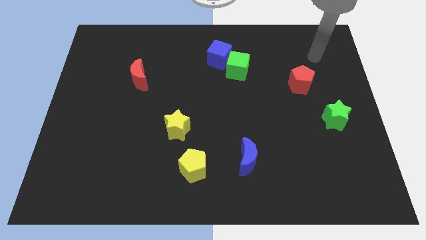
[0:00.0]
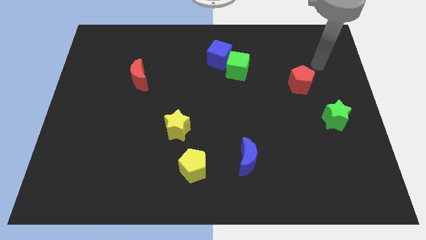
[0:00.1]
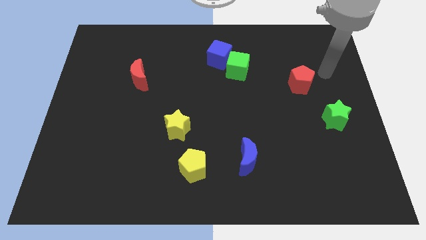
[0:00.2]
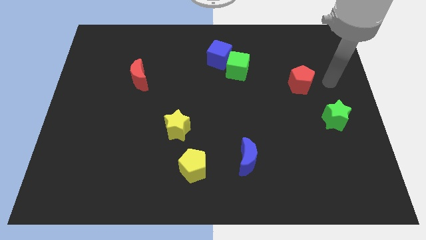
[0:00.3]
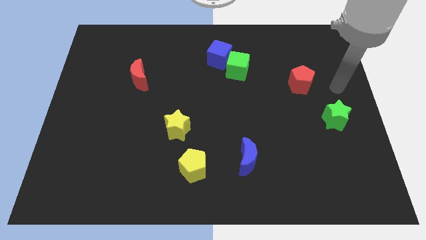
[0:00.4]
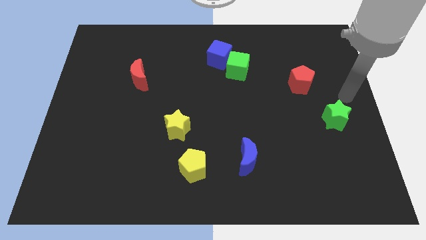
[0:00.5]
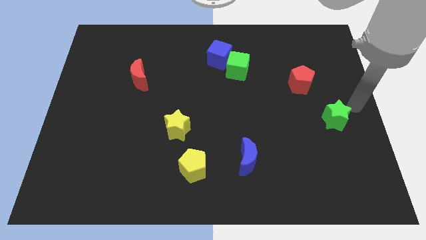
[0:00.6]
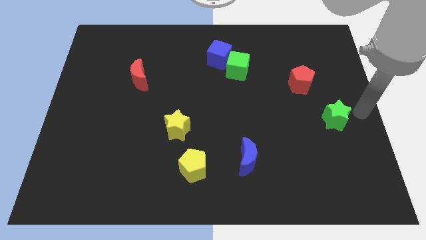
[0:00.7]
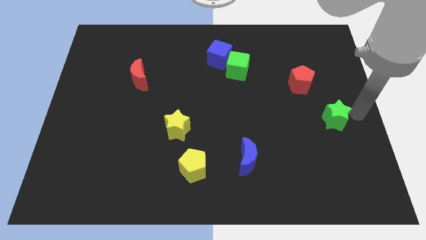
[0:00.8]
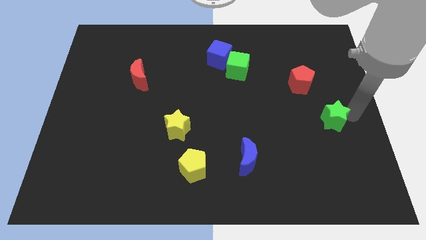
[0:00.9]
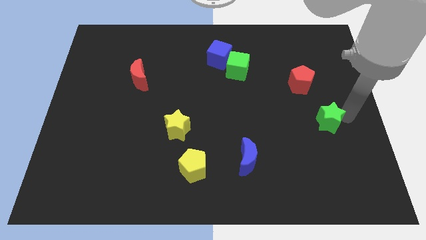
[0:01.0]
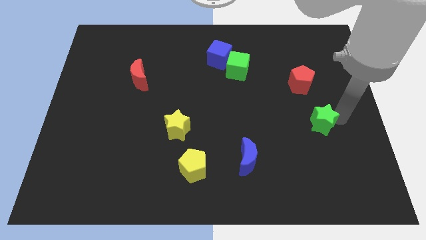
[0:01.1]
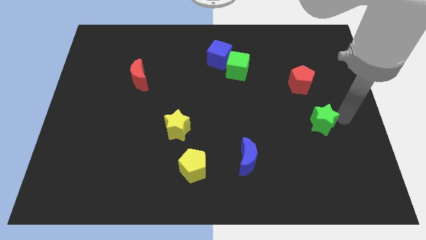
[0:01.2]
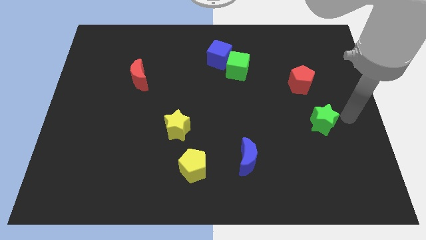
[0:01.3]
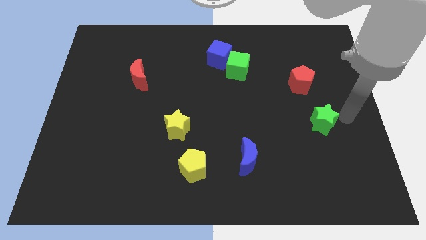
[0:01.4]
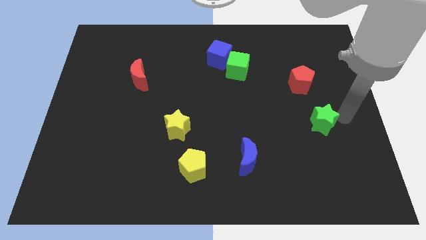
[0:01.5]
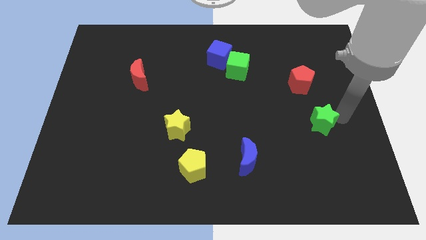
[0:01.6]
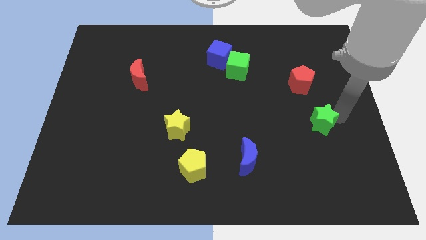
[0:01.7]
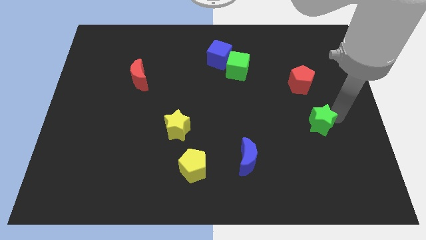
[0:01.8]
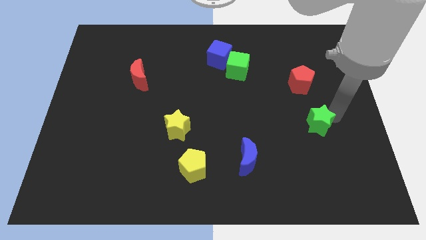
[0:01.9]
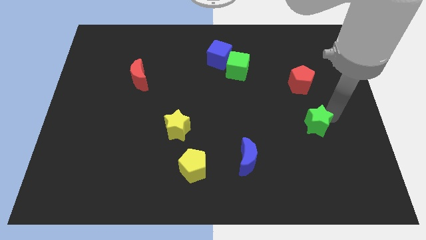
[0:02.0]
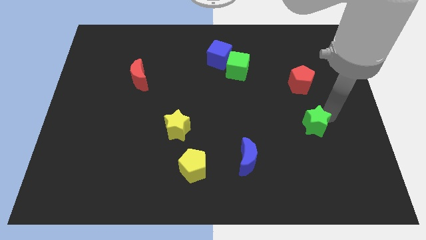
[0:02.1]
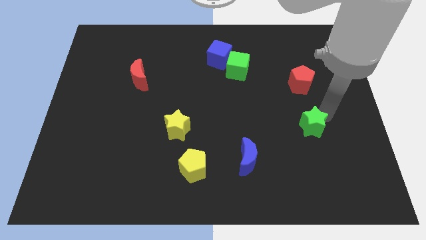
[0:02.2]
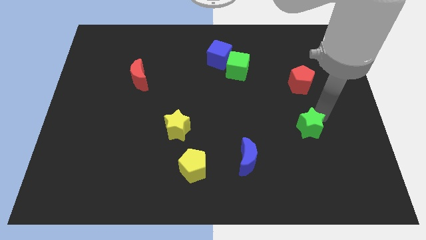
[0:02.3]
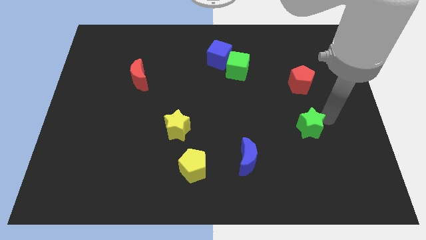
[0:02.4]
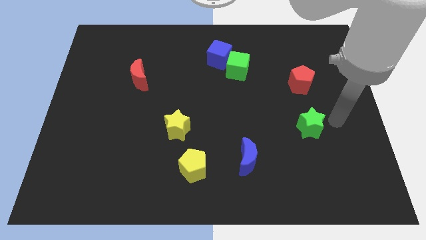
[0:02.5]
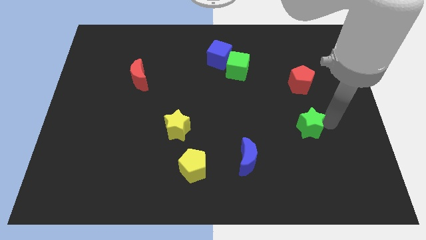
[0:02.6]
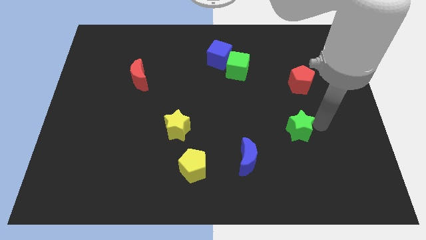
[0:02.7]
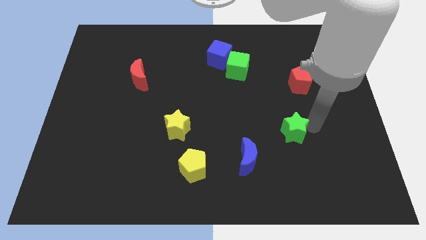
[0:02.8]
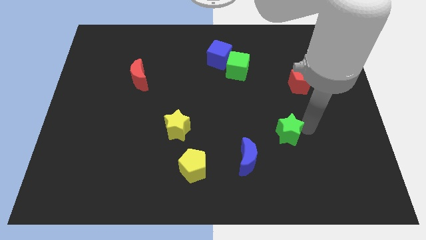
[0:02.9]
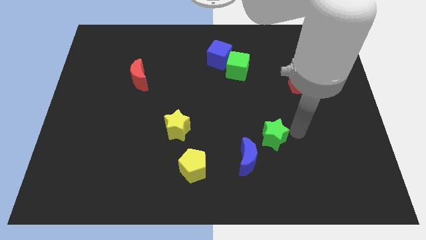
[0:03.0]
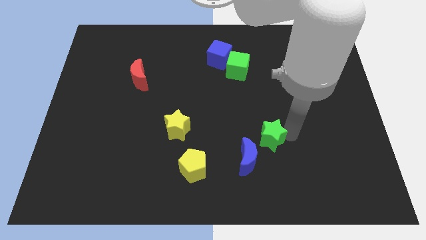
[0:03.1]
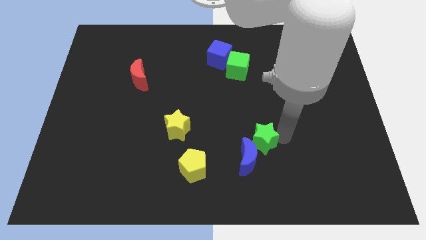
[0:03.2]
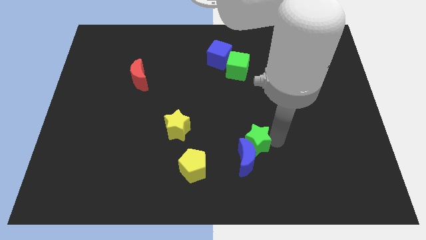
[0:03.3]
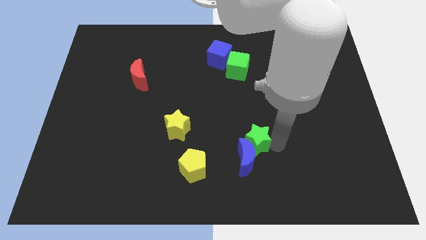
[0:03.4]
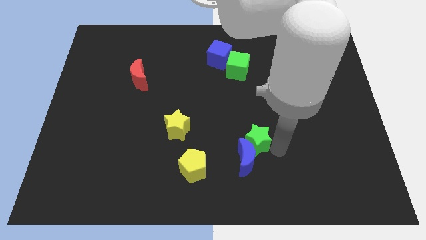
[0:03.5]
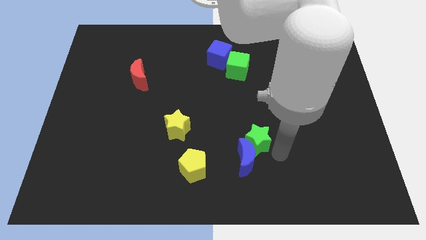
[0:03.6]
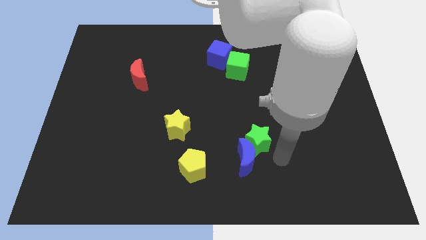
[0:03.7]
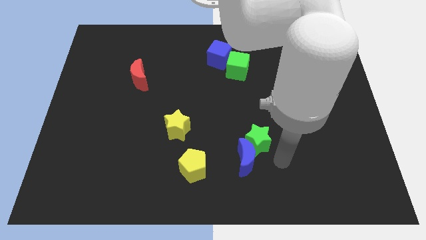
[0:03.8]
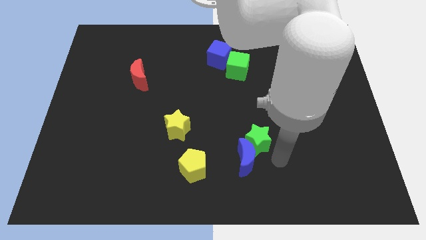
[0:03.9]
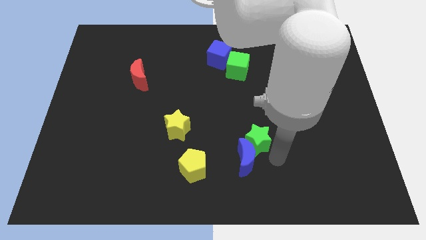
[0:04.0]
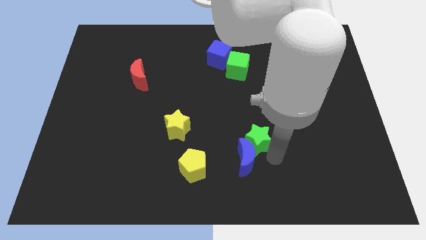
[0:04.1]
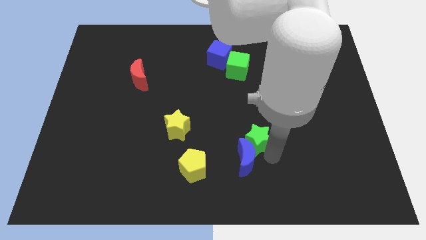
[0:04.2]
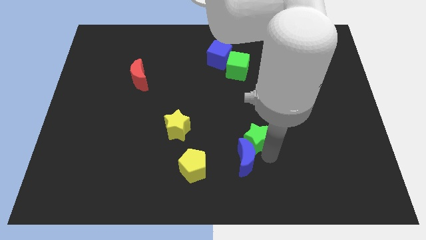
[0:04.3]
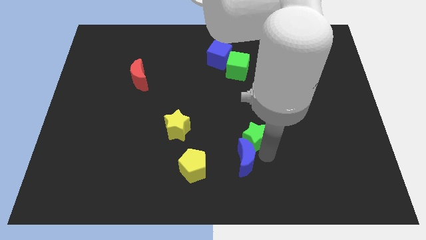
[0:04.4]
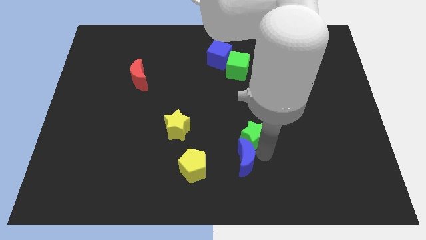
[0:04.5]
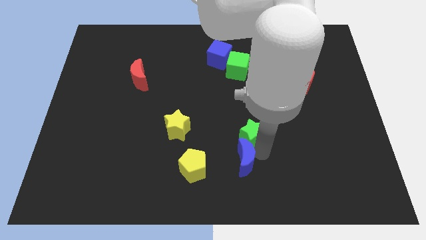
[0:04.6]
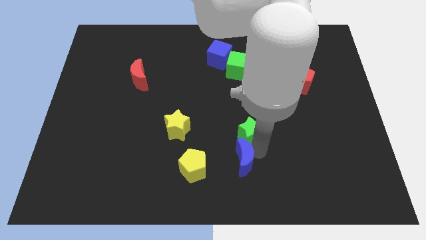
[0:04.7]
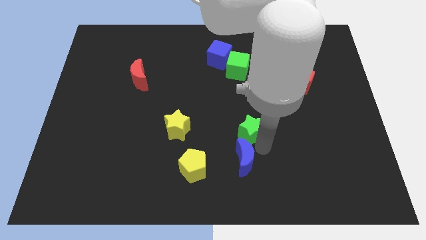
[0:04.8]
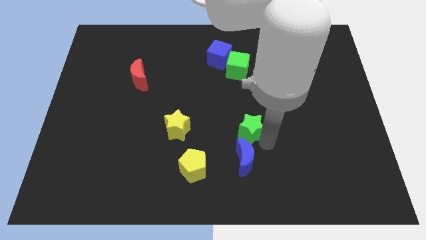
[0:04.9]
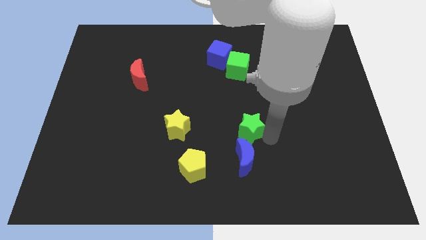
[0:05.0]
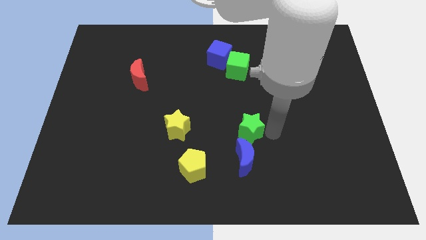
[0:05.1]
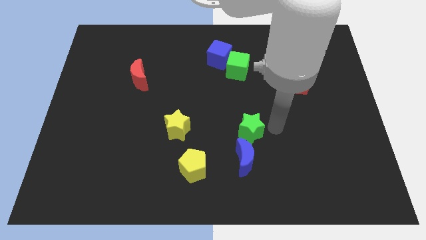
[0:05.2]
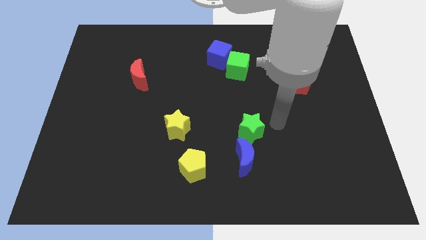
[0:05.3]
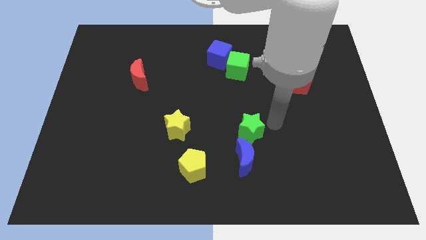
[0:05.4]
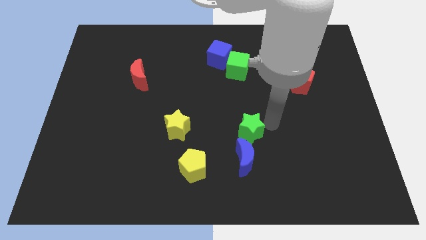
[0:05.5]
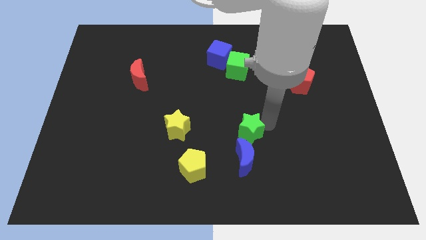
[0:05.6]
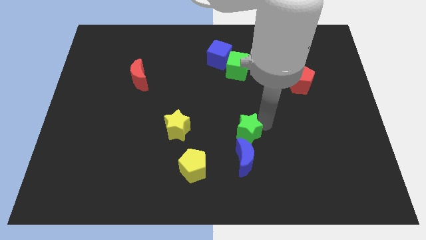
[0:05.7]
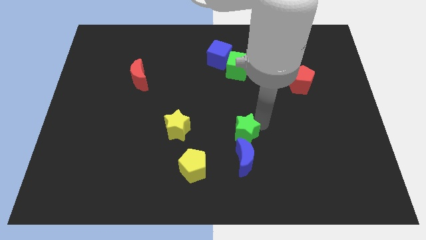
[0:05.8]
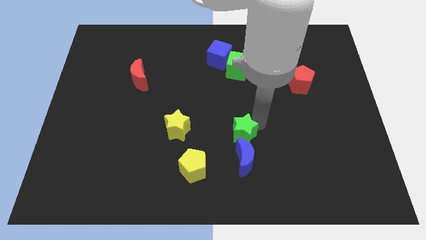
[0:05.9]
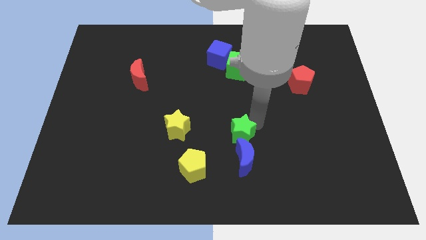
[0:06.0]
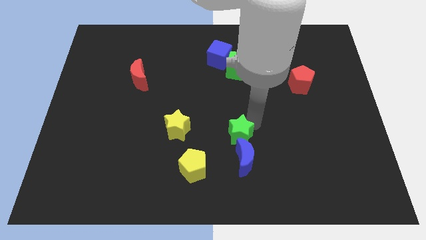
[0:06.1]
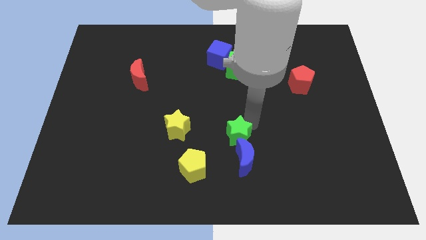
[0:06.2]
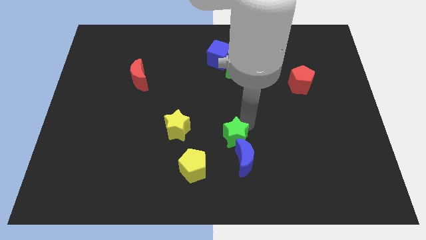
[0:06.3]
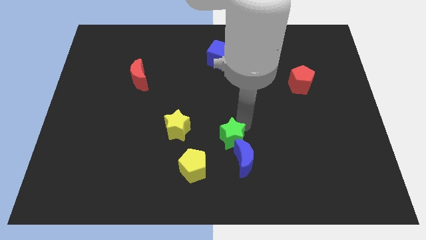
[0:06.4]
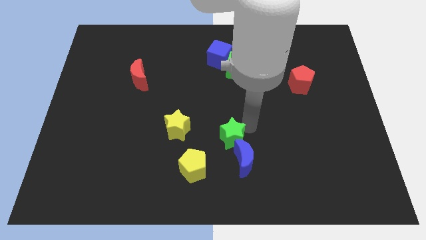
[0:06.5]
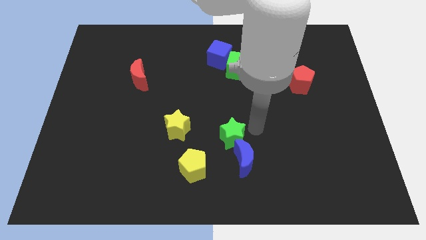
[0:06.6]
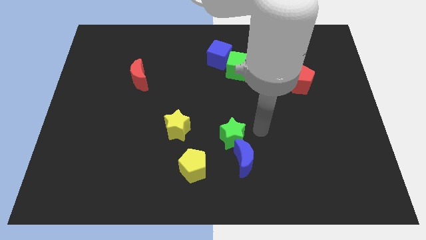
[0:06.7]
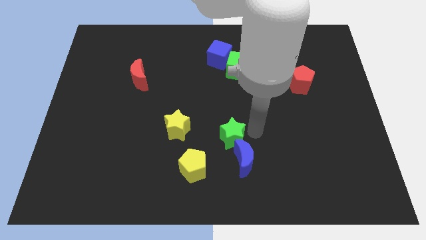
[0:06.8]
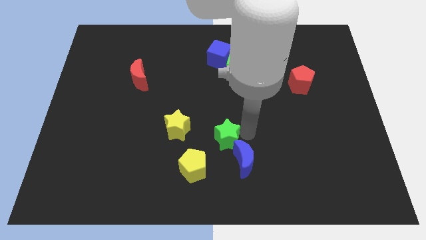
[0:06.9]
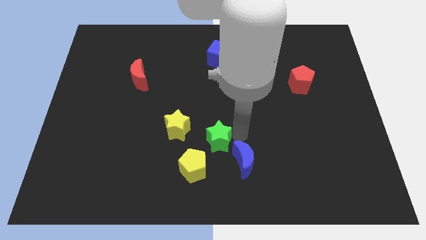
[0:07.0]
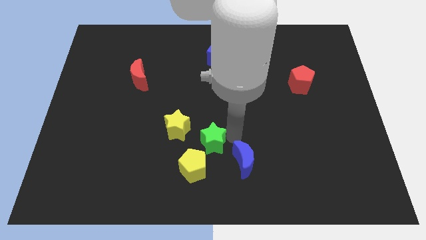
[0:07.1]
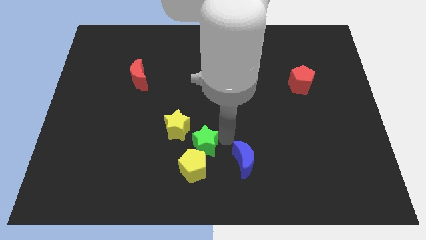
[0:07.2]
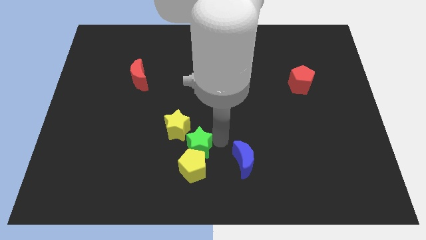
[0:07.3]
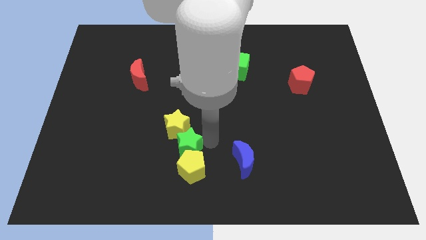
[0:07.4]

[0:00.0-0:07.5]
move the green star to the bottom side of the yellow star

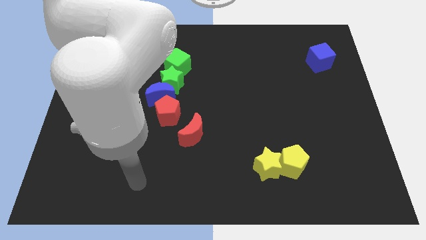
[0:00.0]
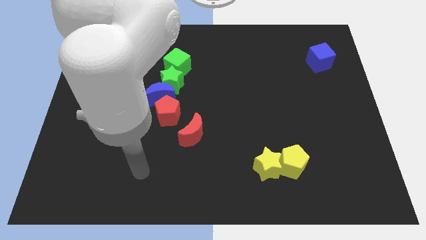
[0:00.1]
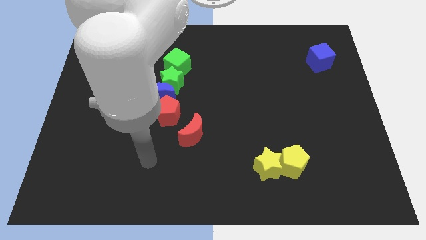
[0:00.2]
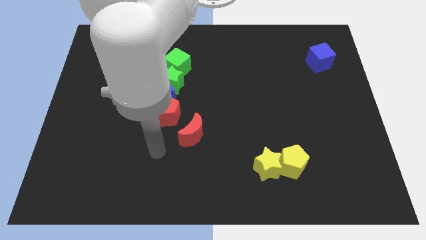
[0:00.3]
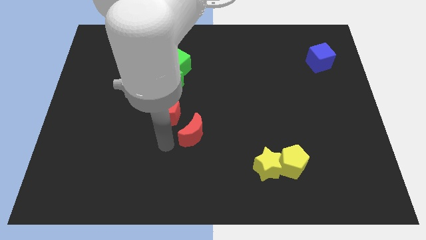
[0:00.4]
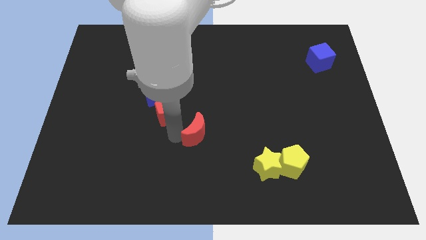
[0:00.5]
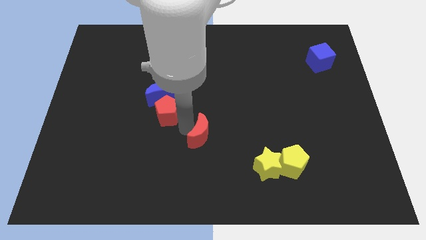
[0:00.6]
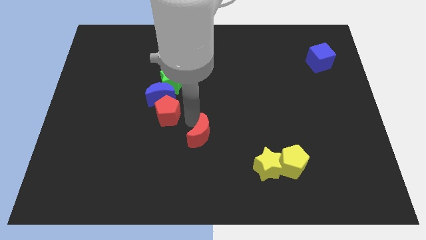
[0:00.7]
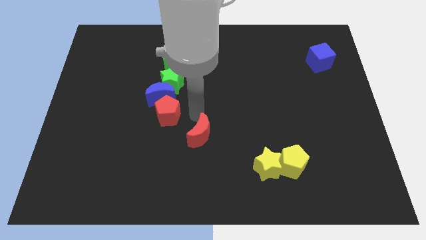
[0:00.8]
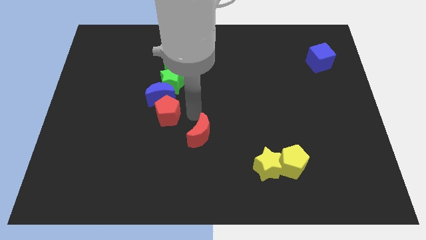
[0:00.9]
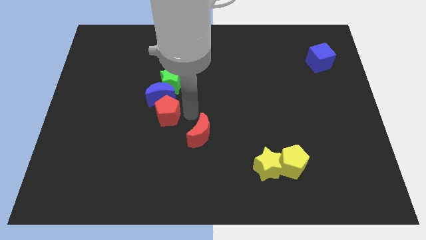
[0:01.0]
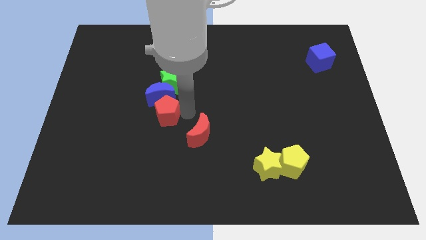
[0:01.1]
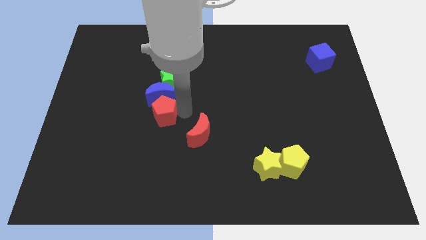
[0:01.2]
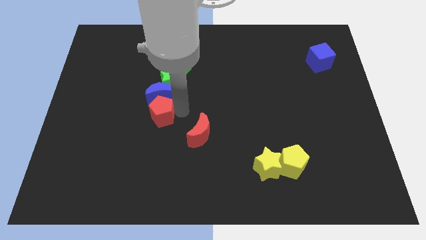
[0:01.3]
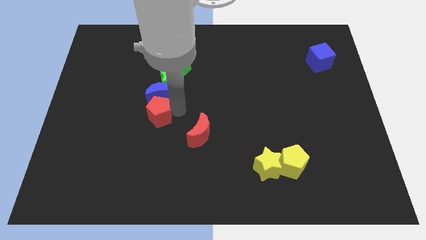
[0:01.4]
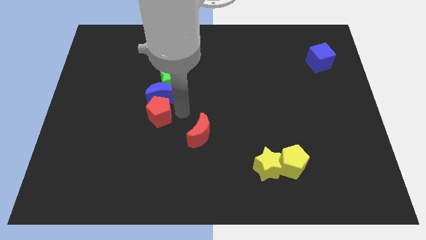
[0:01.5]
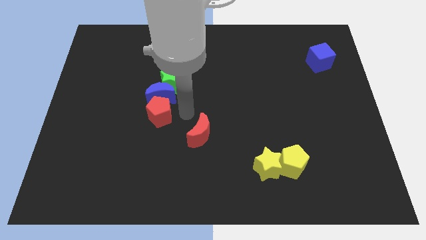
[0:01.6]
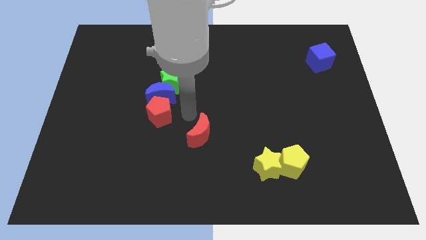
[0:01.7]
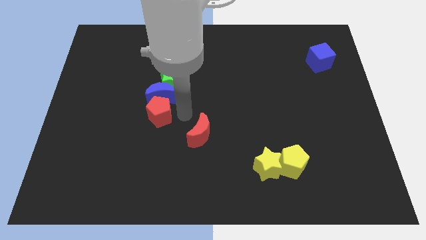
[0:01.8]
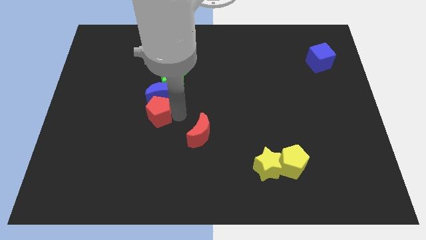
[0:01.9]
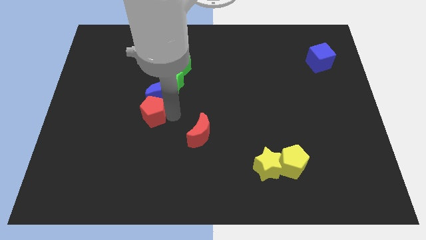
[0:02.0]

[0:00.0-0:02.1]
put the red pentagon diagonally down and to the left of the green star
